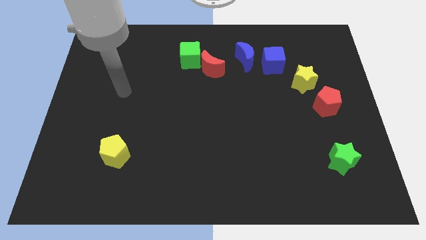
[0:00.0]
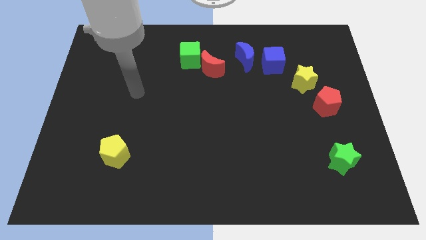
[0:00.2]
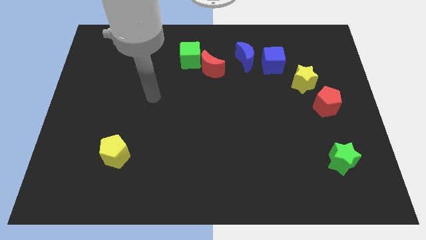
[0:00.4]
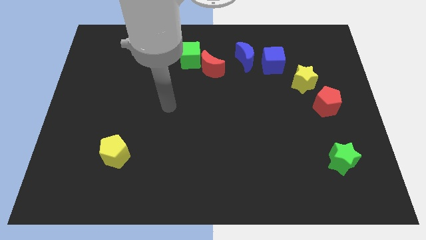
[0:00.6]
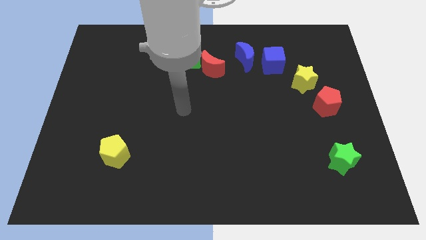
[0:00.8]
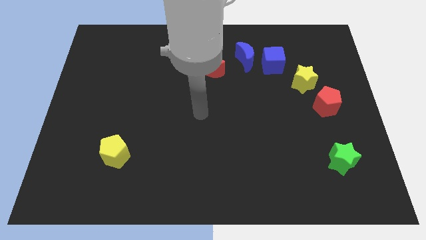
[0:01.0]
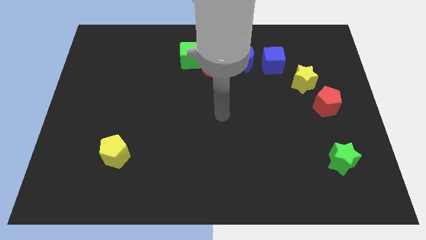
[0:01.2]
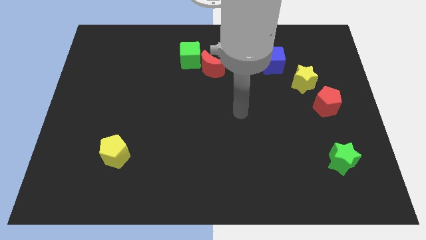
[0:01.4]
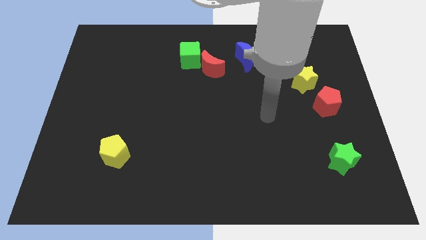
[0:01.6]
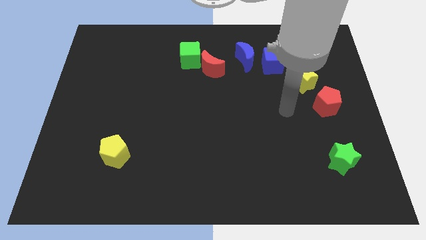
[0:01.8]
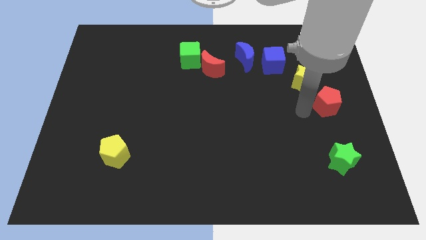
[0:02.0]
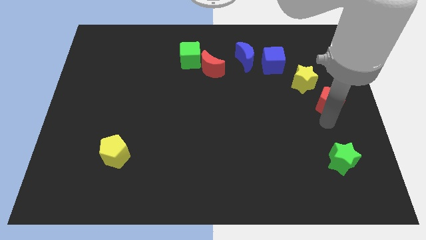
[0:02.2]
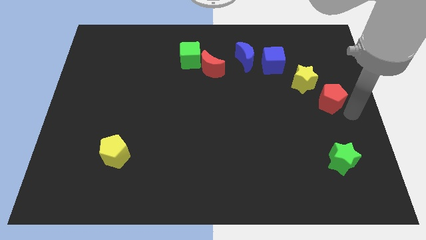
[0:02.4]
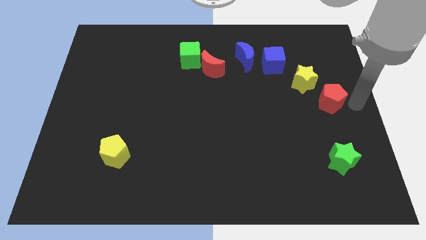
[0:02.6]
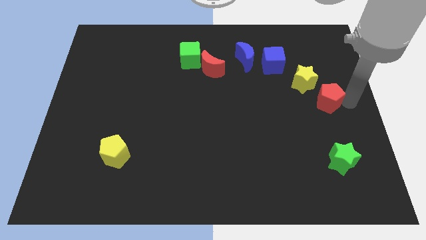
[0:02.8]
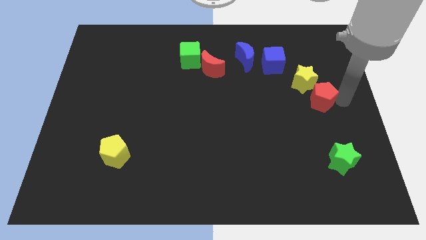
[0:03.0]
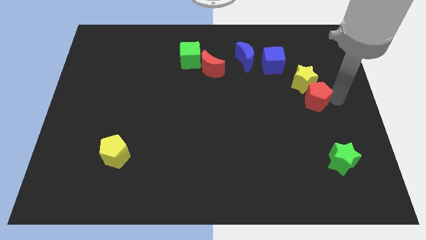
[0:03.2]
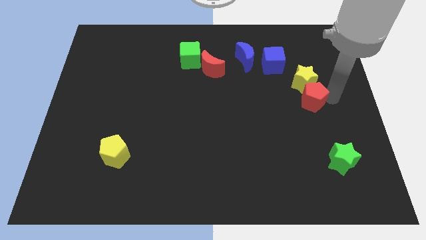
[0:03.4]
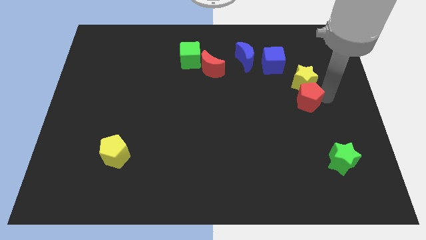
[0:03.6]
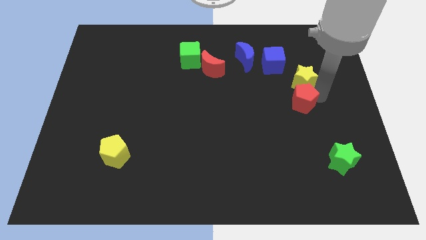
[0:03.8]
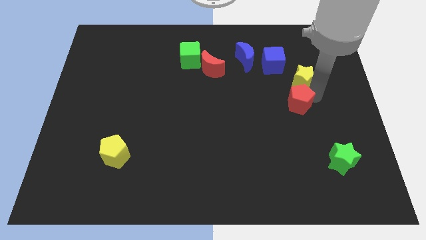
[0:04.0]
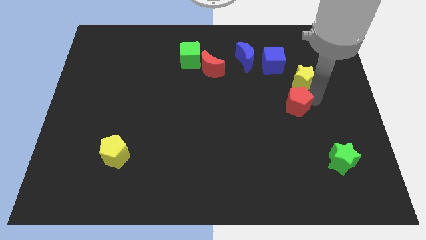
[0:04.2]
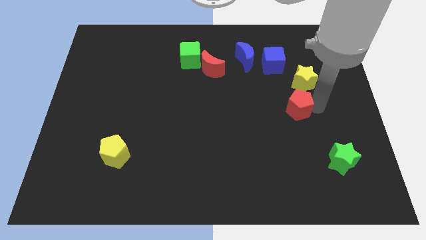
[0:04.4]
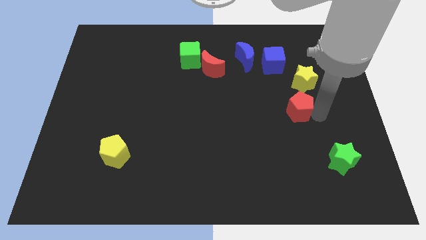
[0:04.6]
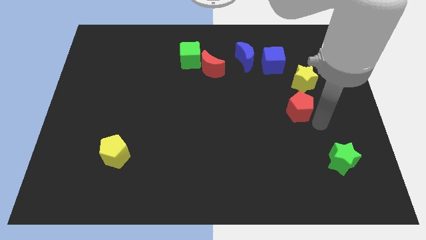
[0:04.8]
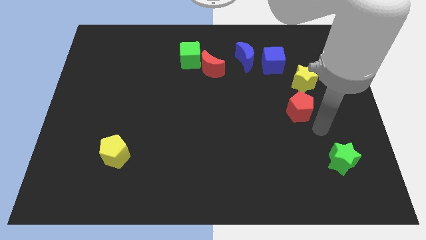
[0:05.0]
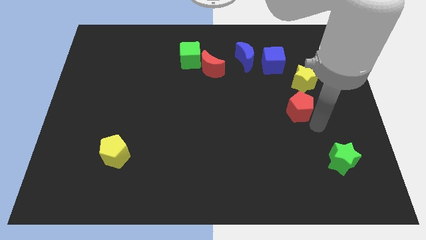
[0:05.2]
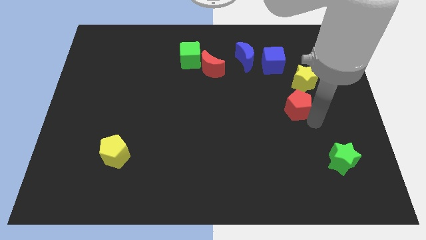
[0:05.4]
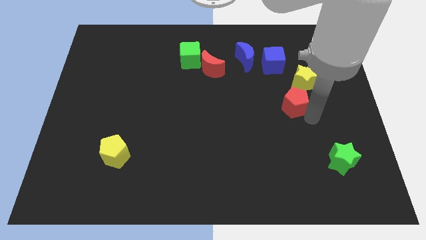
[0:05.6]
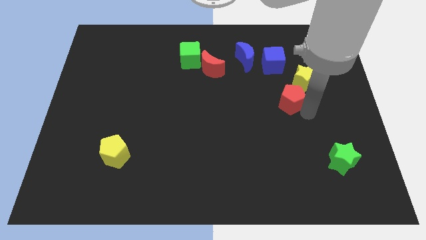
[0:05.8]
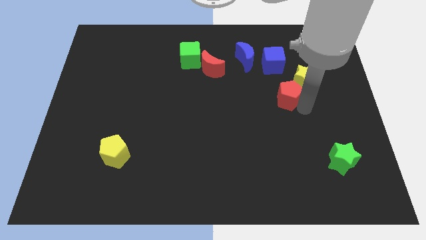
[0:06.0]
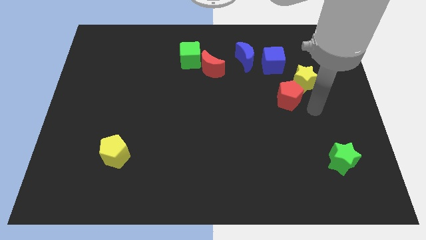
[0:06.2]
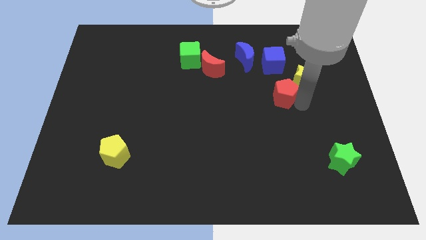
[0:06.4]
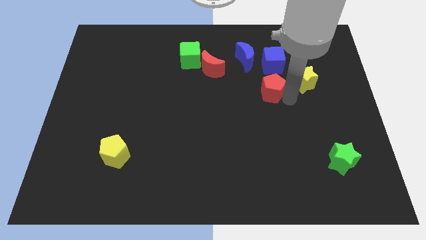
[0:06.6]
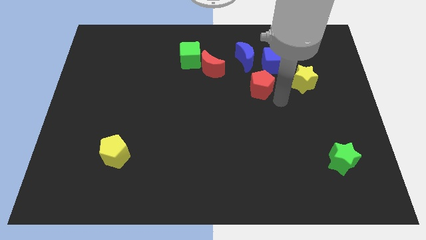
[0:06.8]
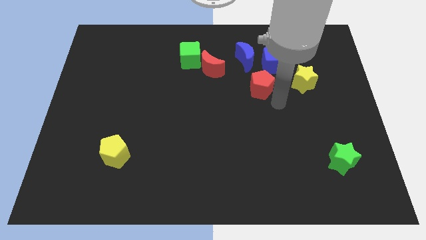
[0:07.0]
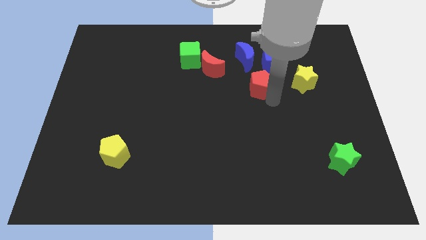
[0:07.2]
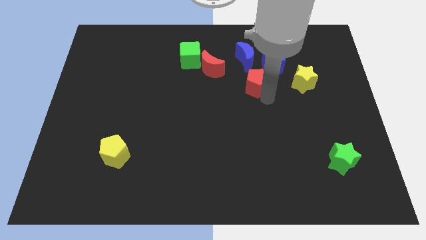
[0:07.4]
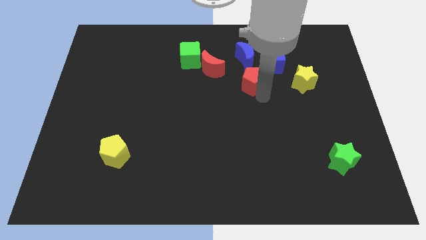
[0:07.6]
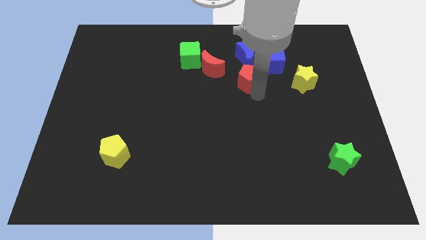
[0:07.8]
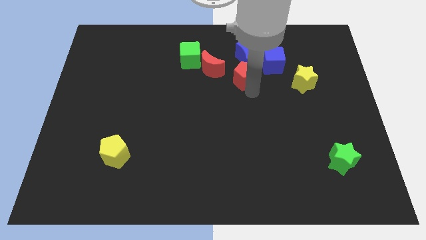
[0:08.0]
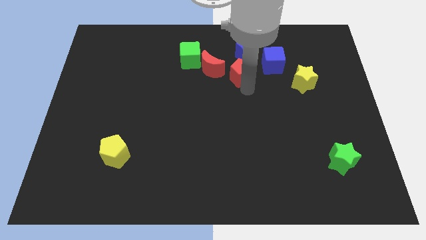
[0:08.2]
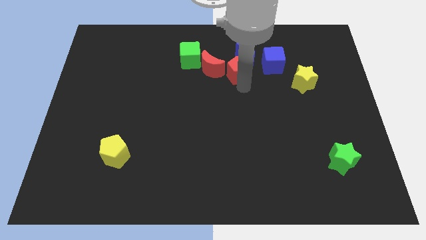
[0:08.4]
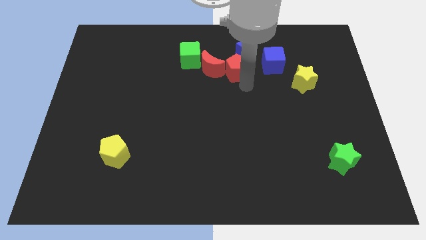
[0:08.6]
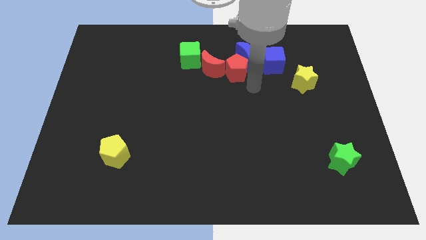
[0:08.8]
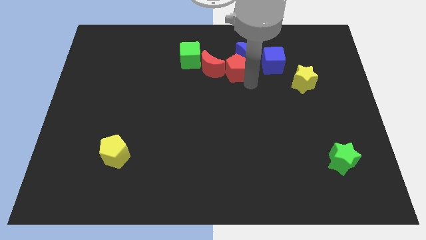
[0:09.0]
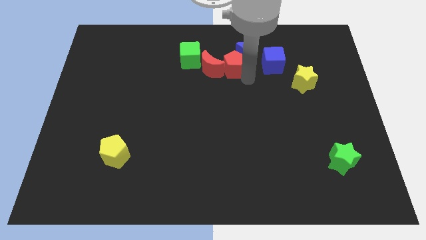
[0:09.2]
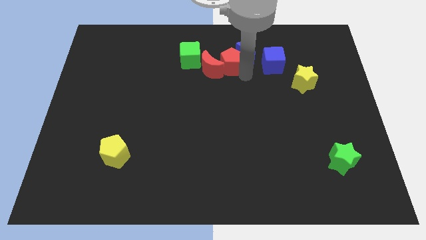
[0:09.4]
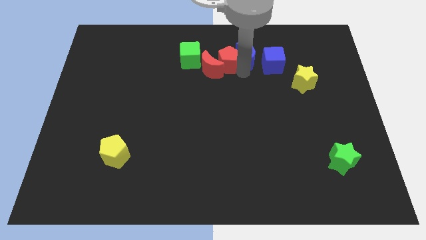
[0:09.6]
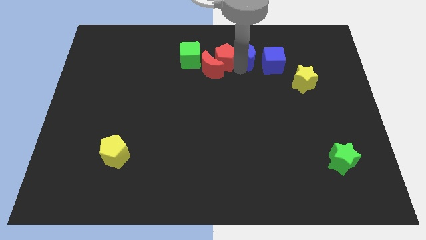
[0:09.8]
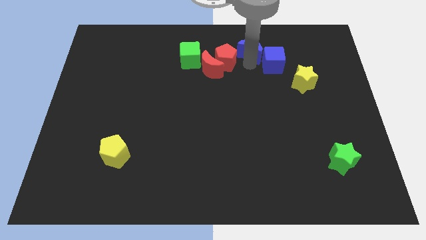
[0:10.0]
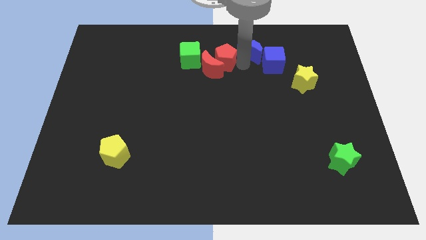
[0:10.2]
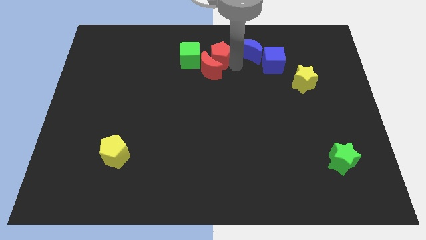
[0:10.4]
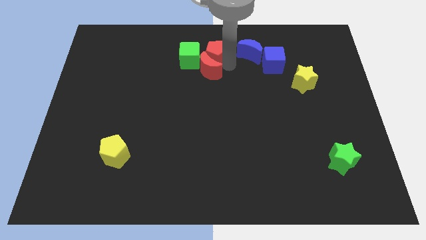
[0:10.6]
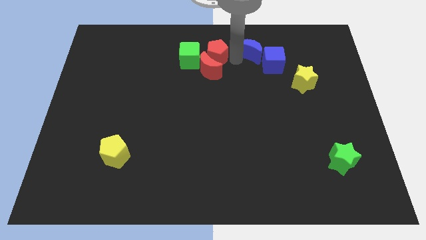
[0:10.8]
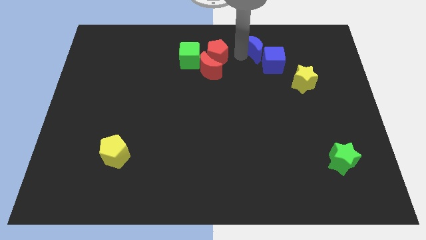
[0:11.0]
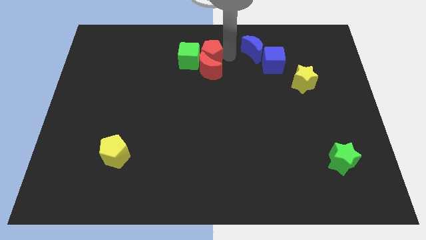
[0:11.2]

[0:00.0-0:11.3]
slide the red pentagon towards the green cube

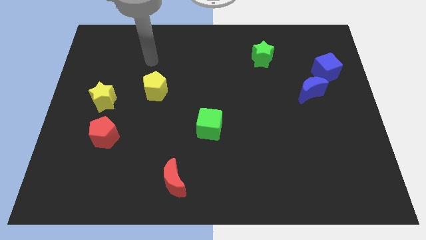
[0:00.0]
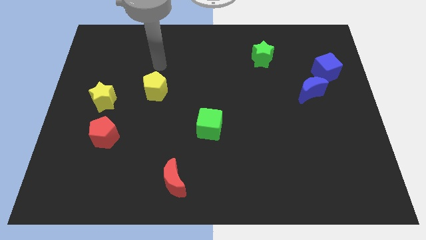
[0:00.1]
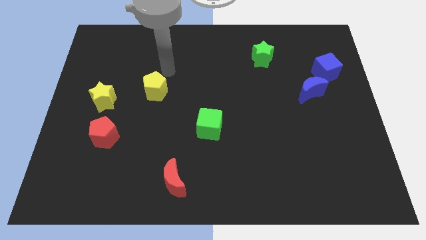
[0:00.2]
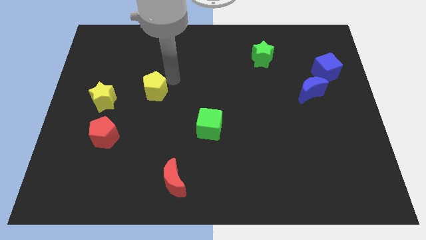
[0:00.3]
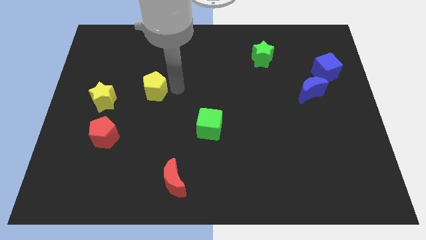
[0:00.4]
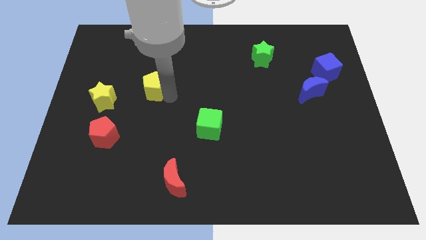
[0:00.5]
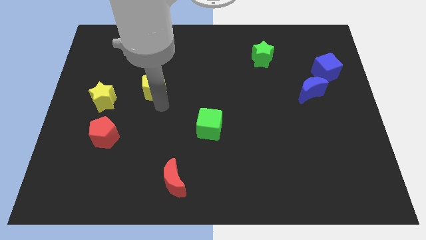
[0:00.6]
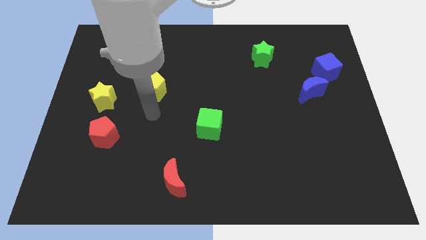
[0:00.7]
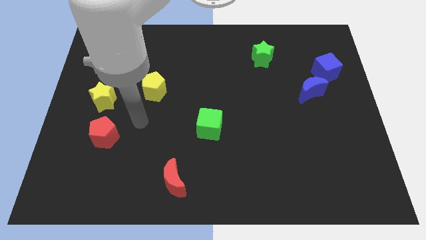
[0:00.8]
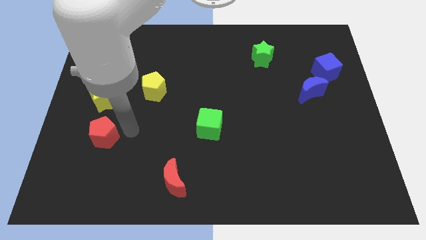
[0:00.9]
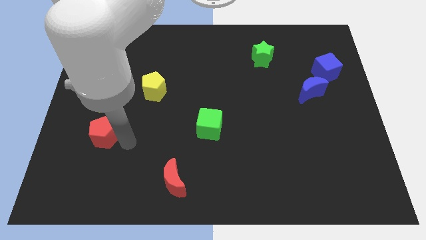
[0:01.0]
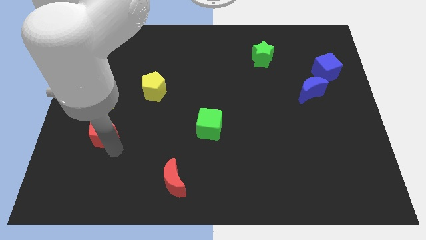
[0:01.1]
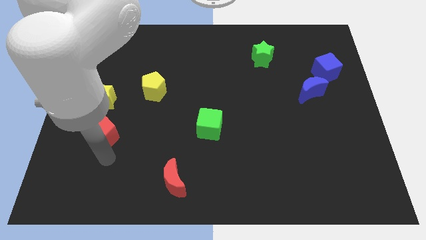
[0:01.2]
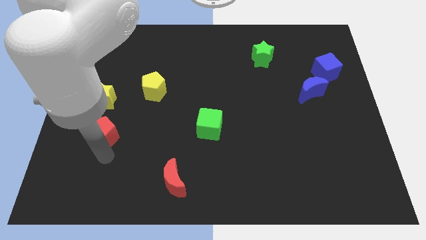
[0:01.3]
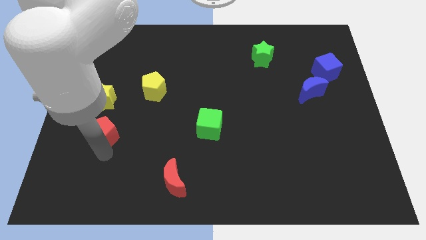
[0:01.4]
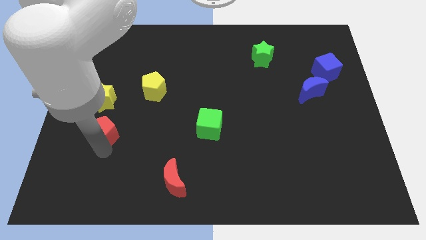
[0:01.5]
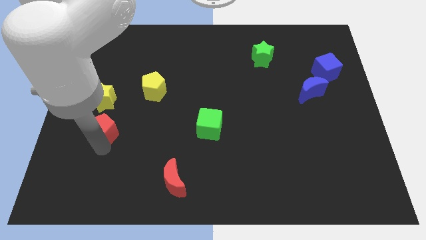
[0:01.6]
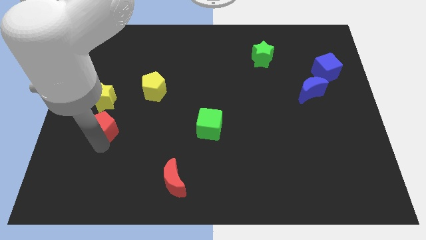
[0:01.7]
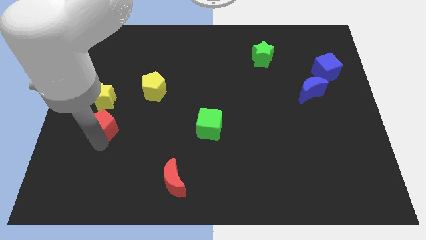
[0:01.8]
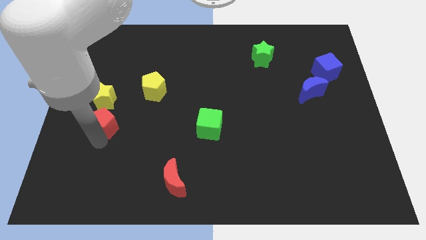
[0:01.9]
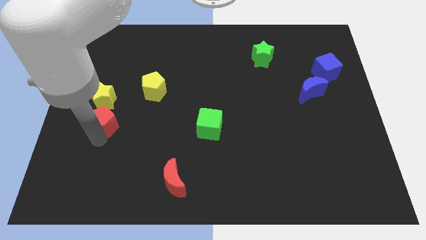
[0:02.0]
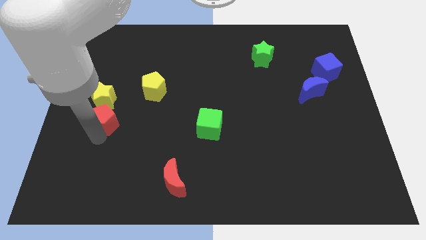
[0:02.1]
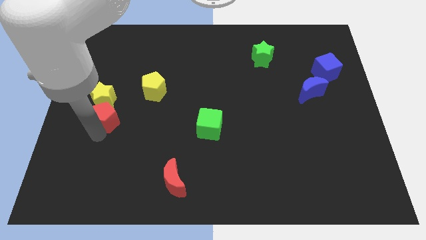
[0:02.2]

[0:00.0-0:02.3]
put the red pentagon close to the yellow star
